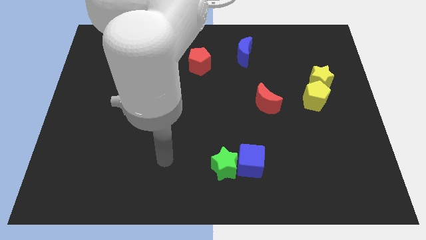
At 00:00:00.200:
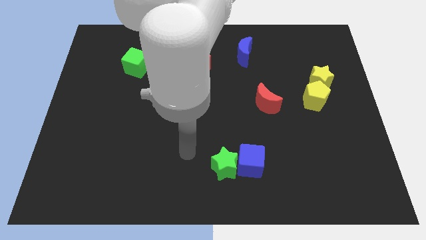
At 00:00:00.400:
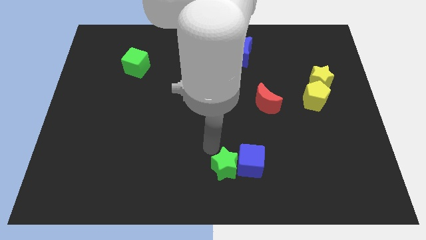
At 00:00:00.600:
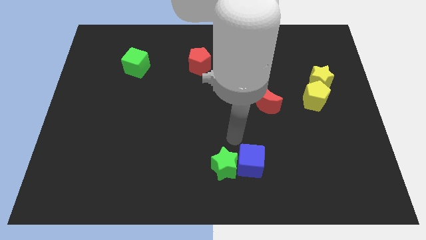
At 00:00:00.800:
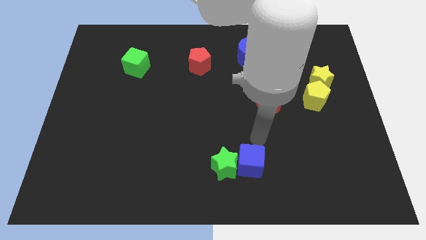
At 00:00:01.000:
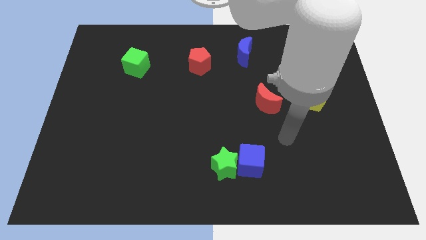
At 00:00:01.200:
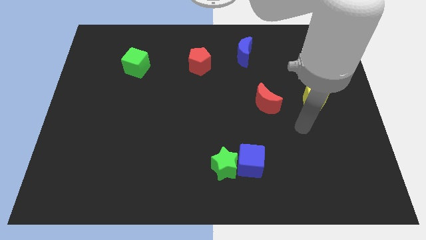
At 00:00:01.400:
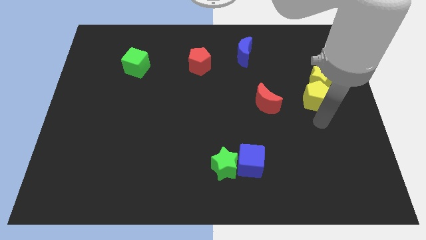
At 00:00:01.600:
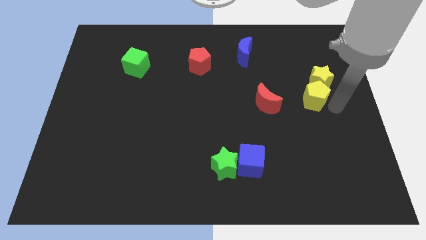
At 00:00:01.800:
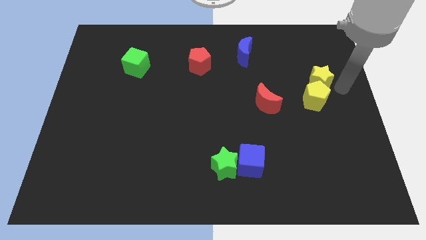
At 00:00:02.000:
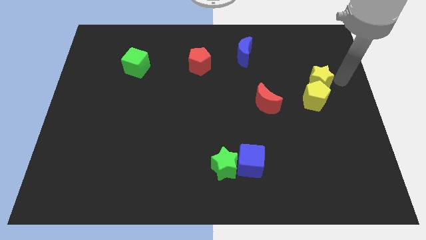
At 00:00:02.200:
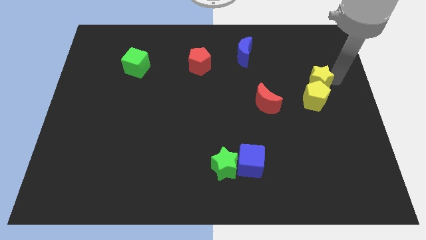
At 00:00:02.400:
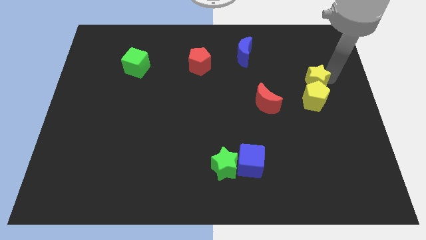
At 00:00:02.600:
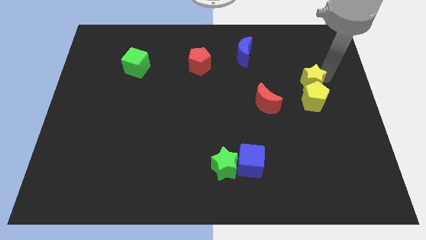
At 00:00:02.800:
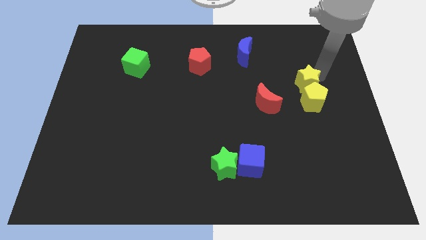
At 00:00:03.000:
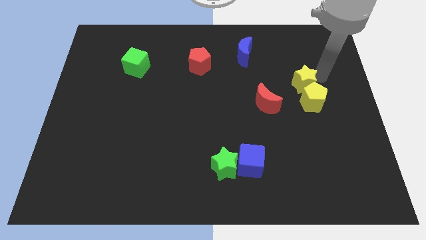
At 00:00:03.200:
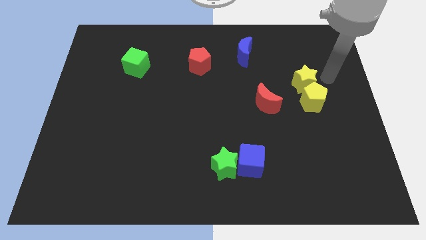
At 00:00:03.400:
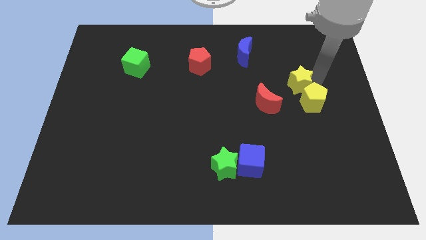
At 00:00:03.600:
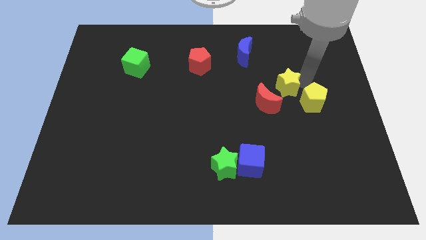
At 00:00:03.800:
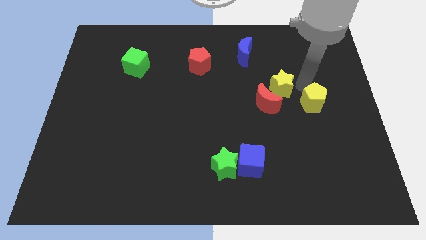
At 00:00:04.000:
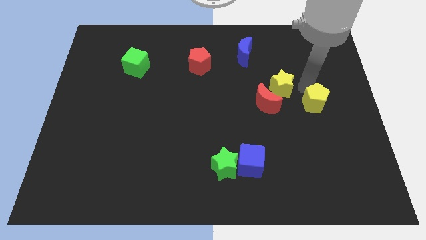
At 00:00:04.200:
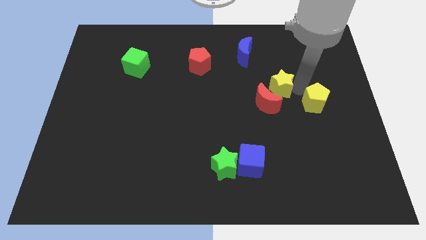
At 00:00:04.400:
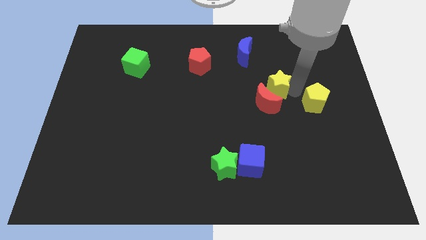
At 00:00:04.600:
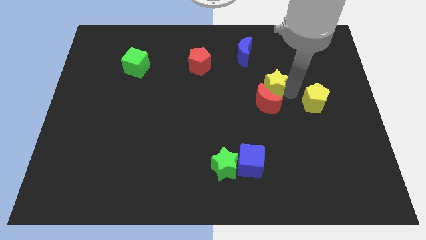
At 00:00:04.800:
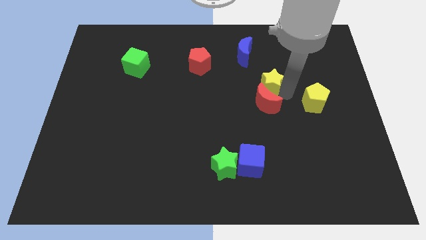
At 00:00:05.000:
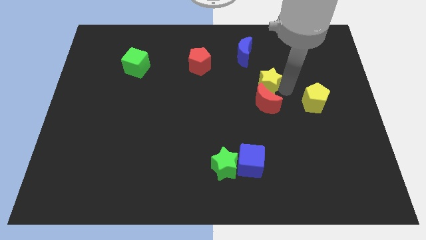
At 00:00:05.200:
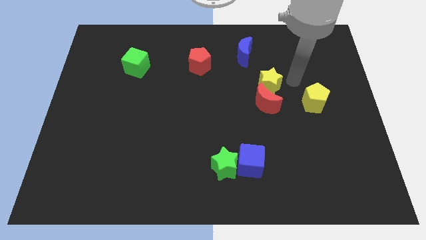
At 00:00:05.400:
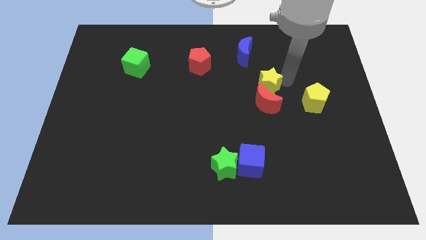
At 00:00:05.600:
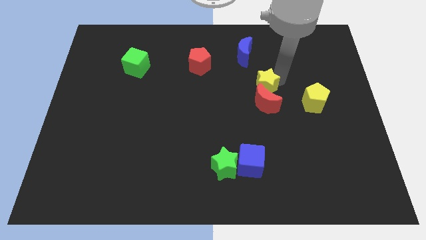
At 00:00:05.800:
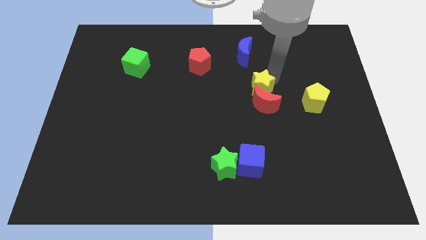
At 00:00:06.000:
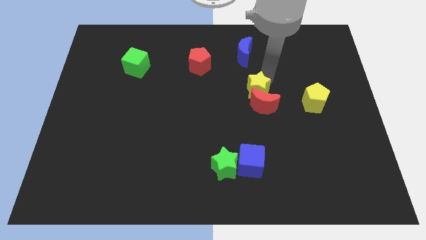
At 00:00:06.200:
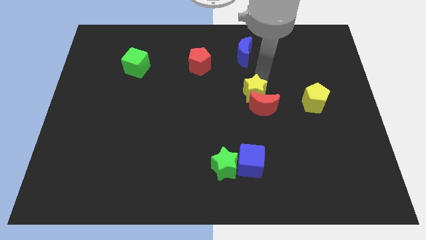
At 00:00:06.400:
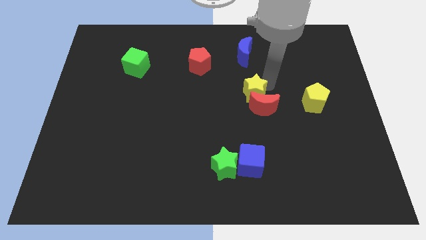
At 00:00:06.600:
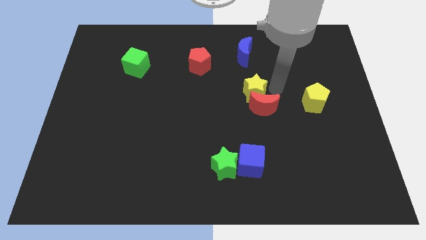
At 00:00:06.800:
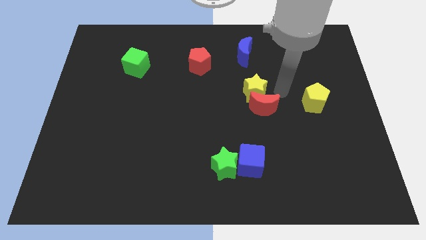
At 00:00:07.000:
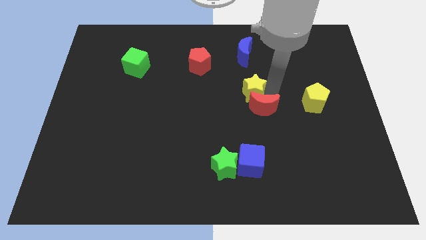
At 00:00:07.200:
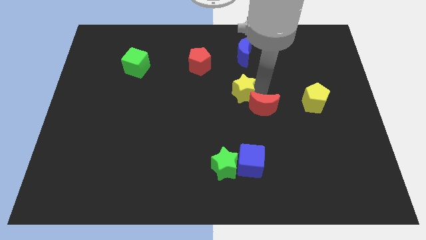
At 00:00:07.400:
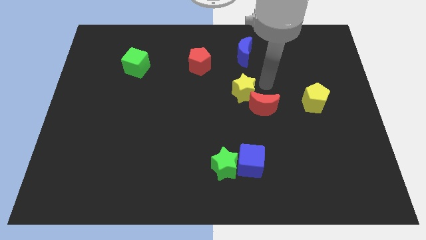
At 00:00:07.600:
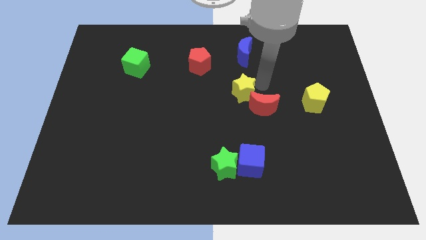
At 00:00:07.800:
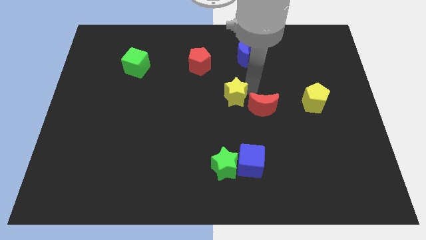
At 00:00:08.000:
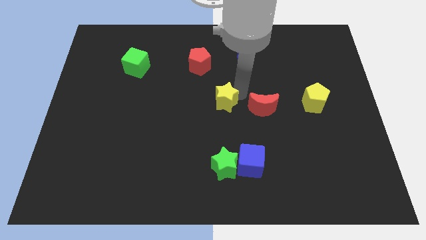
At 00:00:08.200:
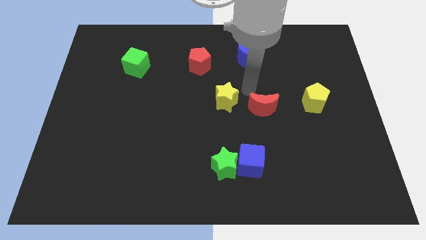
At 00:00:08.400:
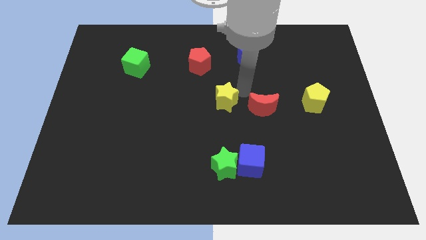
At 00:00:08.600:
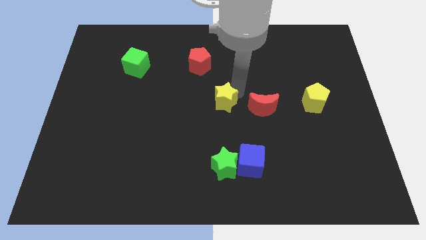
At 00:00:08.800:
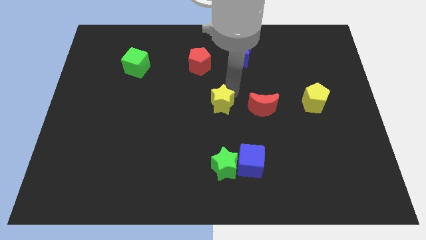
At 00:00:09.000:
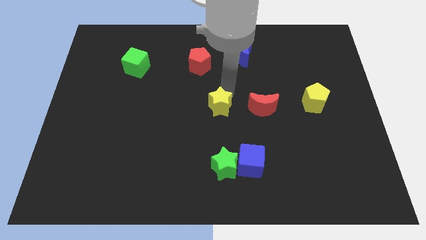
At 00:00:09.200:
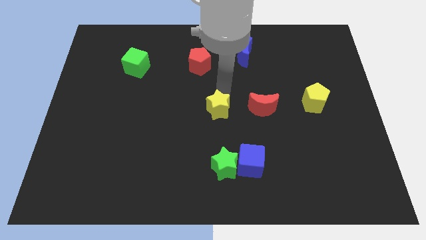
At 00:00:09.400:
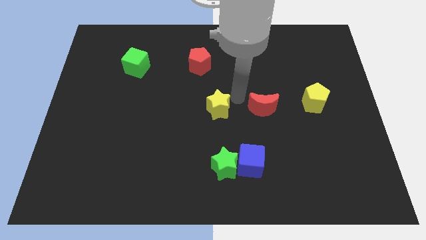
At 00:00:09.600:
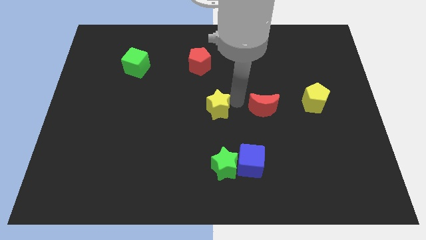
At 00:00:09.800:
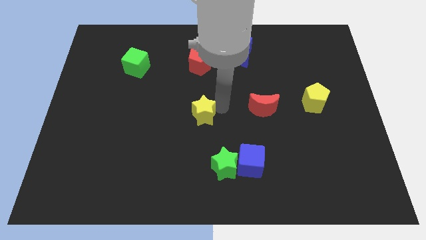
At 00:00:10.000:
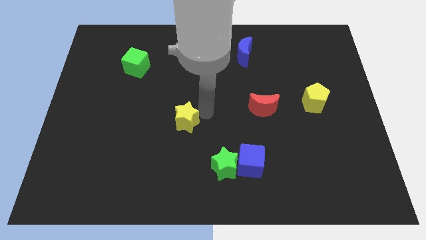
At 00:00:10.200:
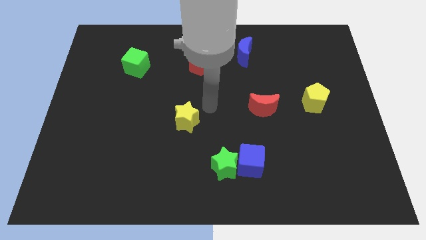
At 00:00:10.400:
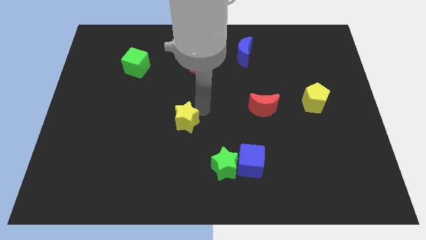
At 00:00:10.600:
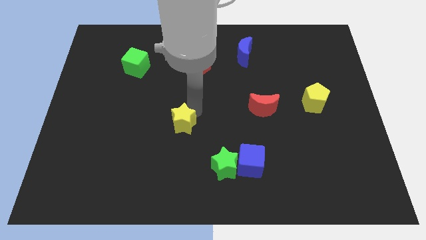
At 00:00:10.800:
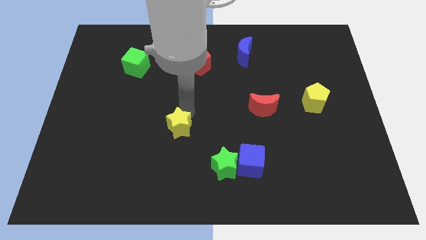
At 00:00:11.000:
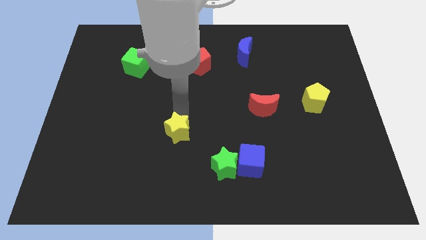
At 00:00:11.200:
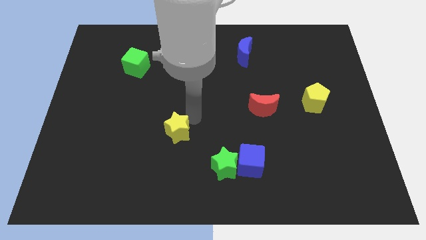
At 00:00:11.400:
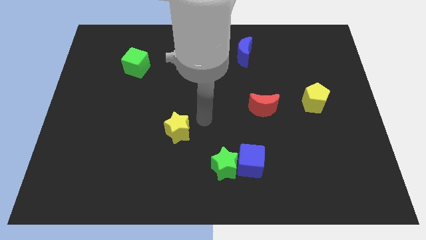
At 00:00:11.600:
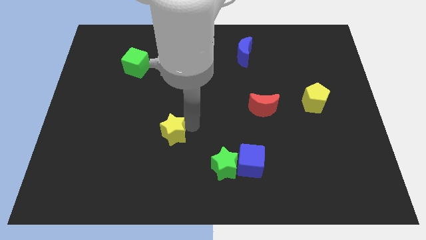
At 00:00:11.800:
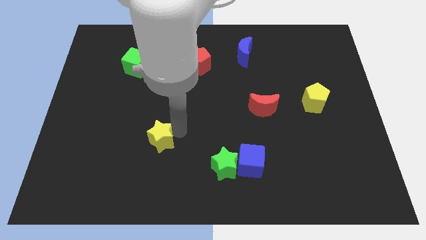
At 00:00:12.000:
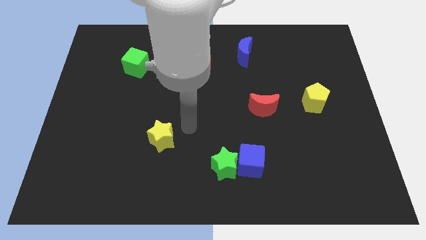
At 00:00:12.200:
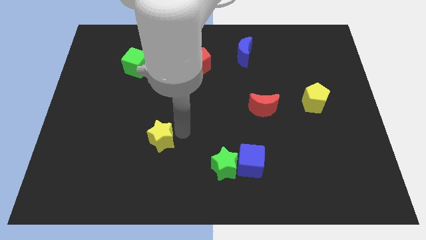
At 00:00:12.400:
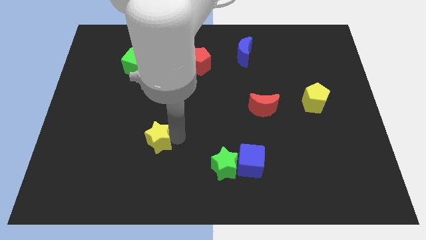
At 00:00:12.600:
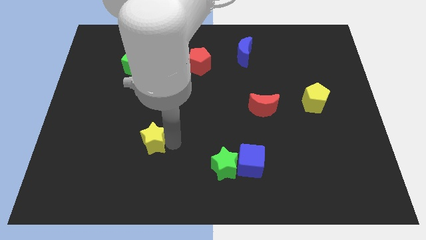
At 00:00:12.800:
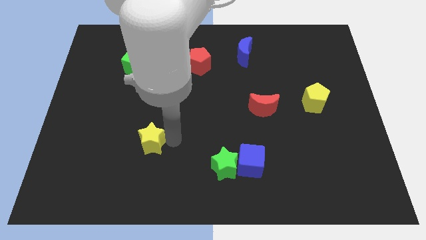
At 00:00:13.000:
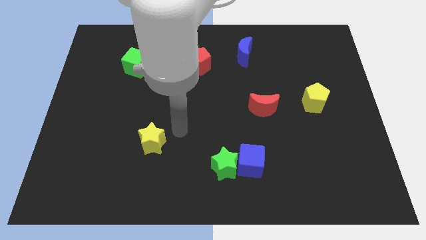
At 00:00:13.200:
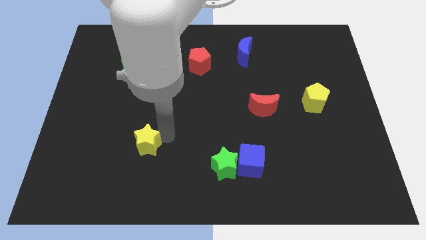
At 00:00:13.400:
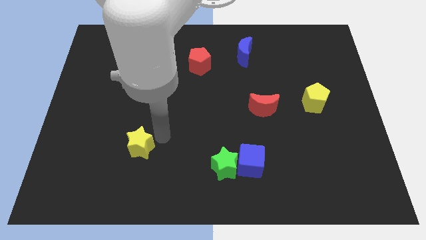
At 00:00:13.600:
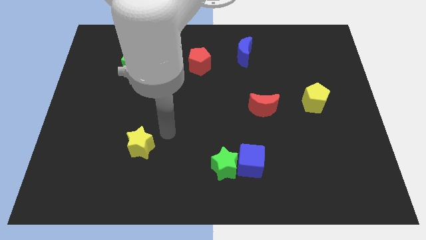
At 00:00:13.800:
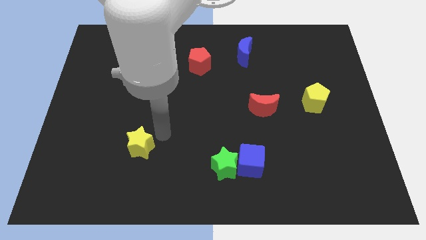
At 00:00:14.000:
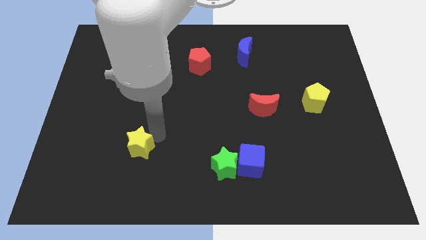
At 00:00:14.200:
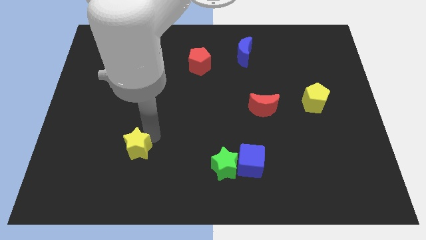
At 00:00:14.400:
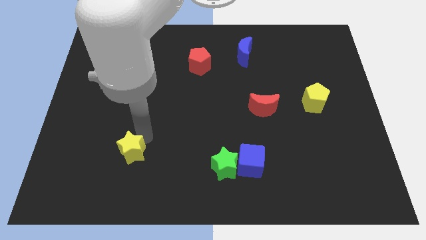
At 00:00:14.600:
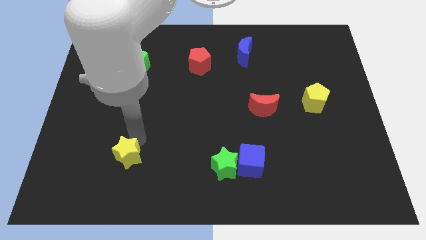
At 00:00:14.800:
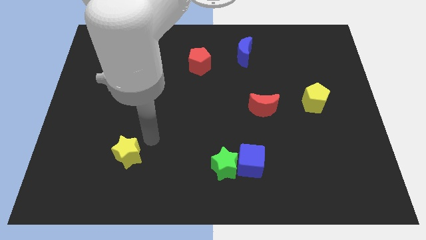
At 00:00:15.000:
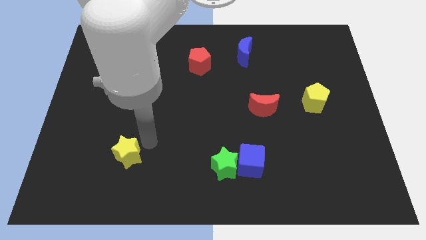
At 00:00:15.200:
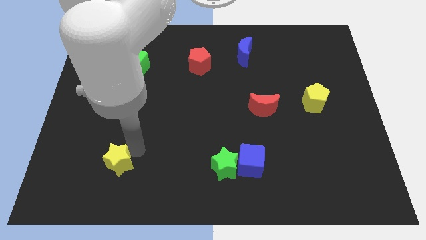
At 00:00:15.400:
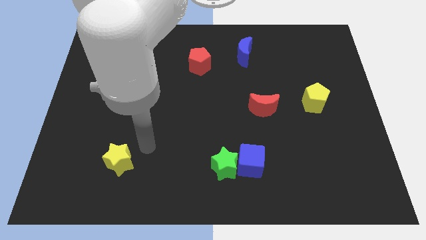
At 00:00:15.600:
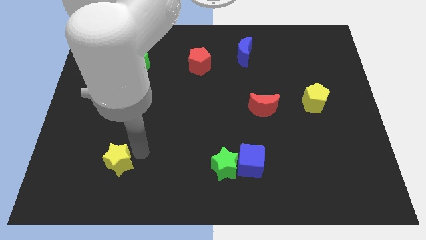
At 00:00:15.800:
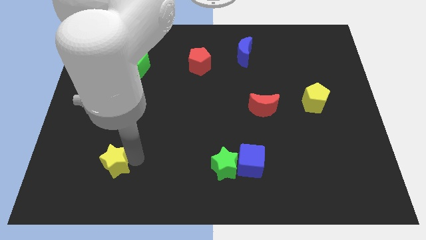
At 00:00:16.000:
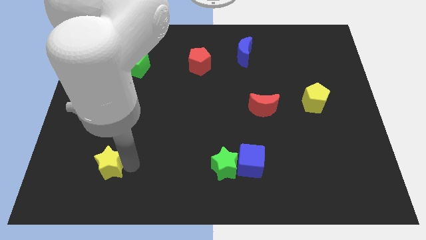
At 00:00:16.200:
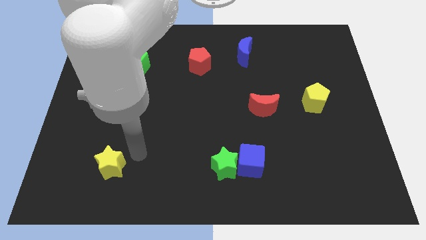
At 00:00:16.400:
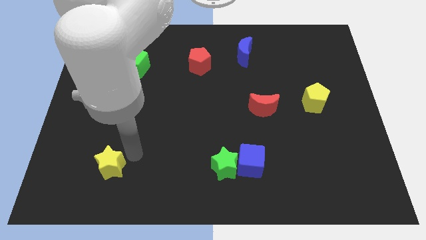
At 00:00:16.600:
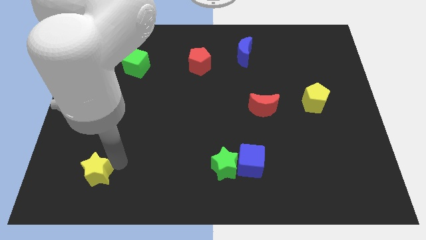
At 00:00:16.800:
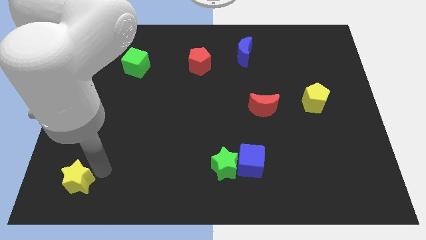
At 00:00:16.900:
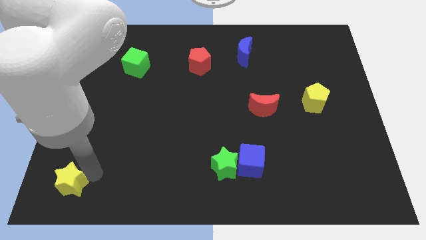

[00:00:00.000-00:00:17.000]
push the yellow star to the bottom left of the board
